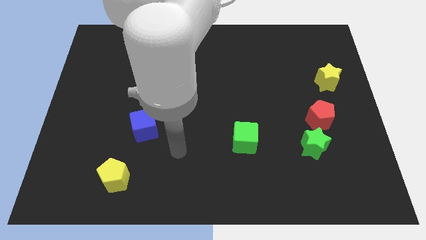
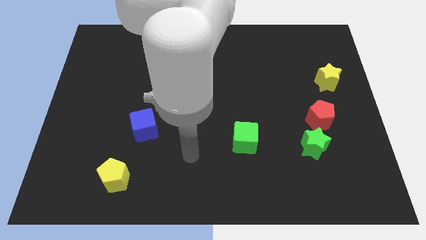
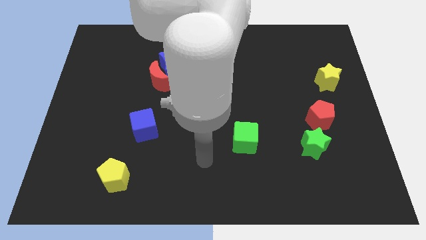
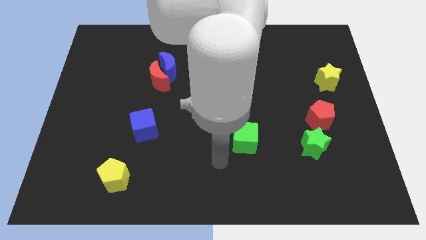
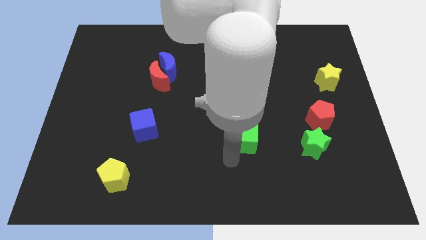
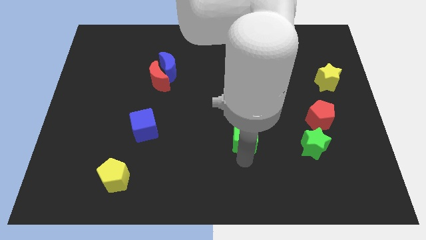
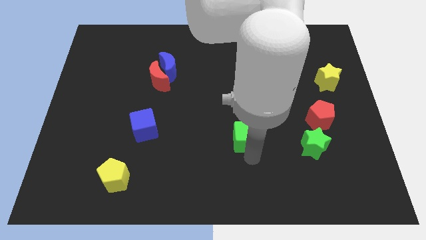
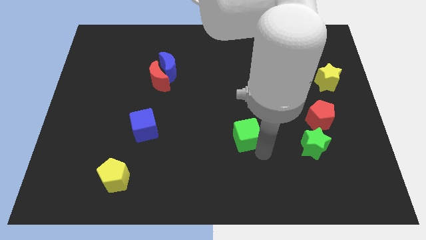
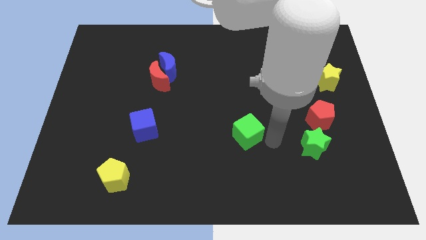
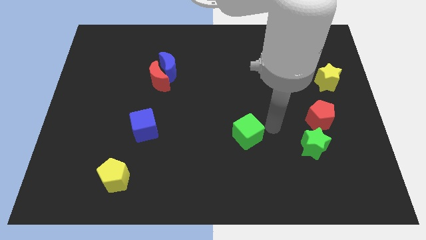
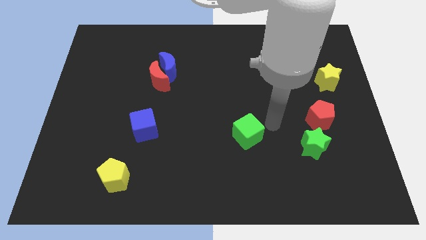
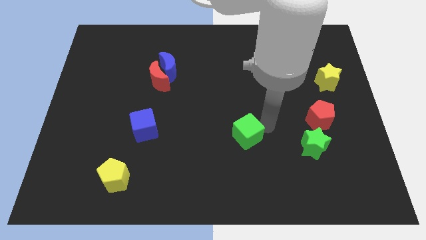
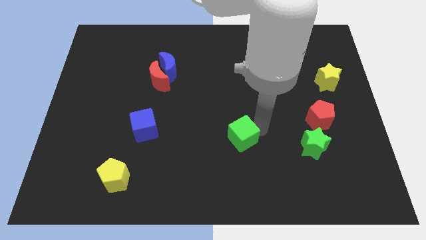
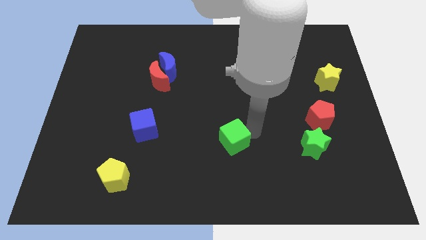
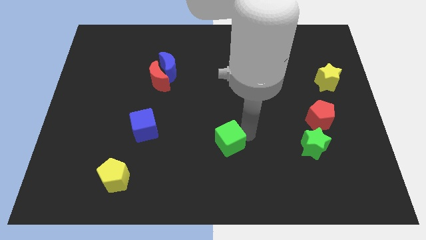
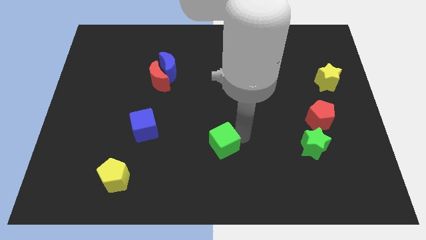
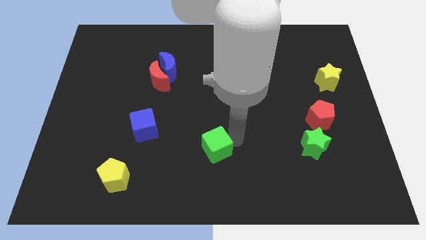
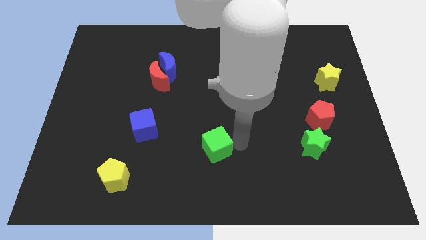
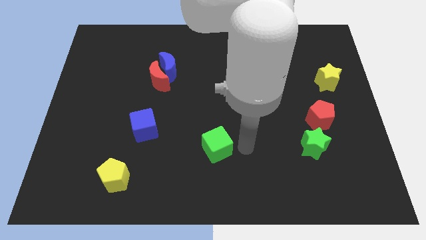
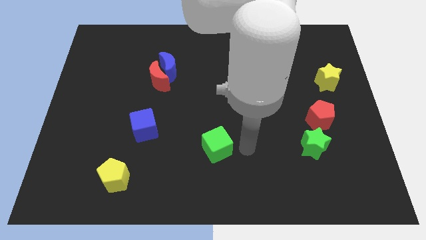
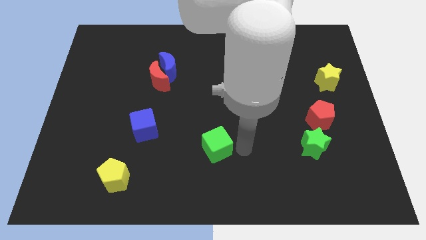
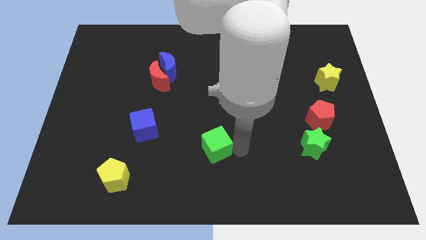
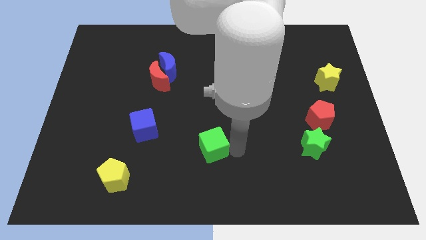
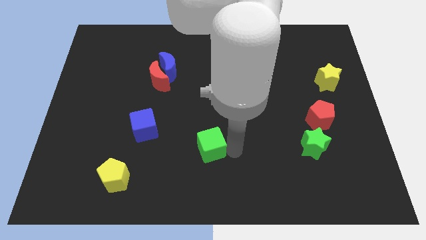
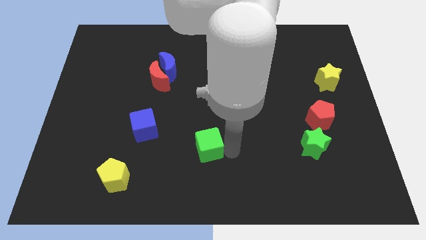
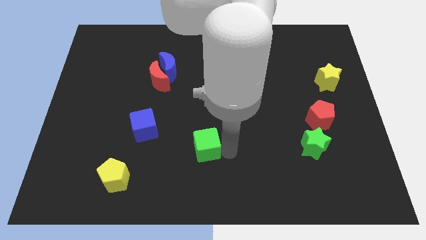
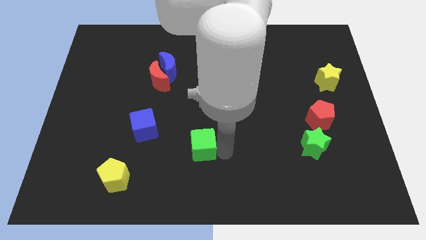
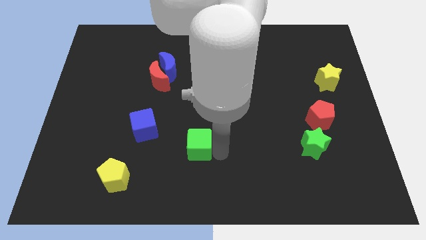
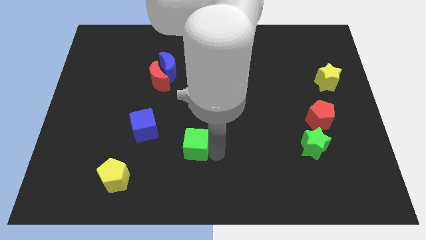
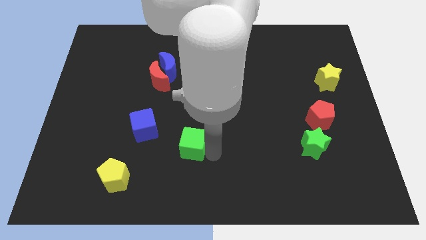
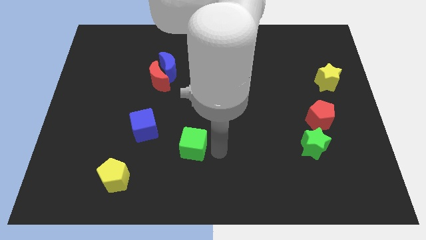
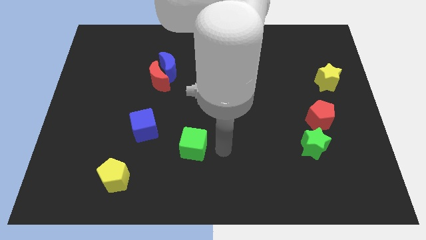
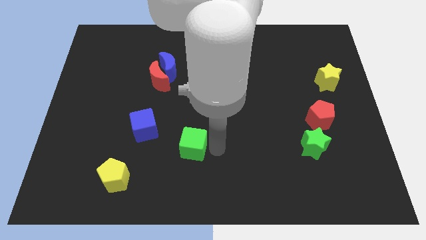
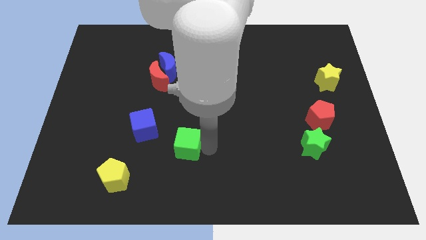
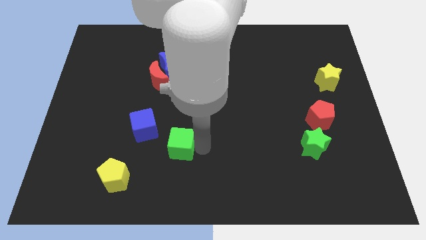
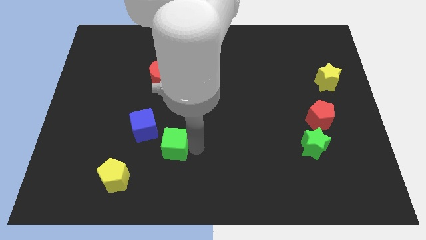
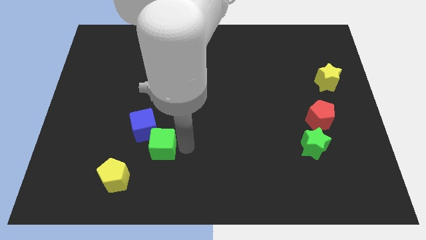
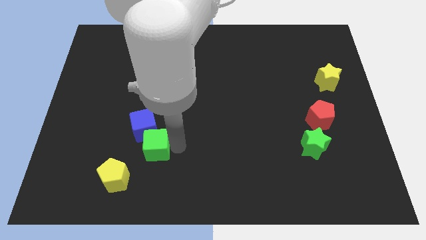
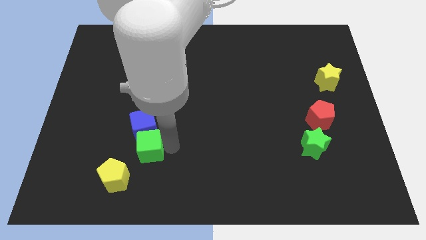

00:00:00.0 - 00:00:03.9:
push the green cube left

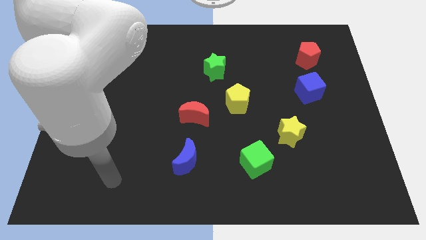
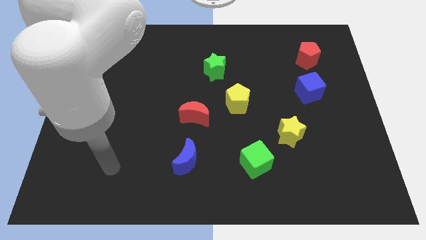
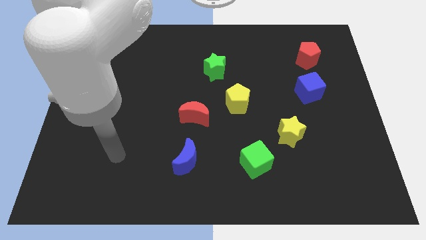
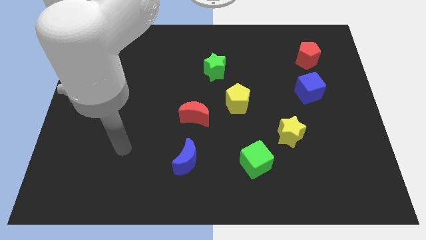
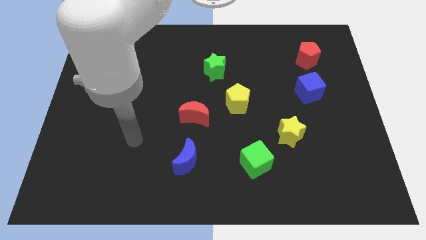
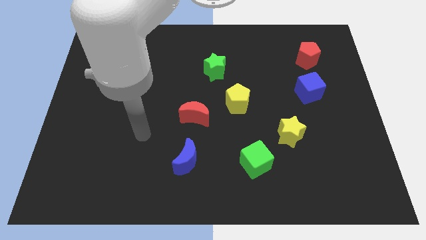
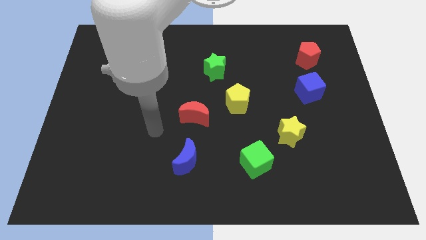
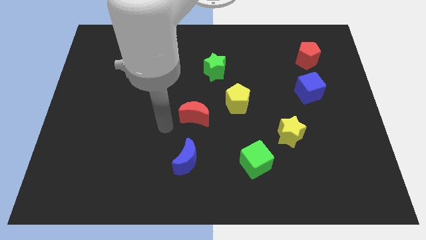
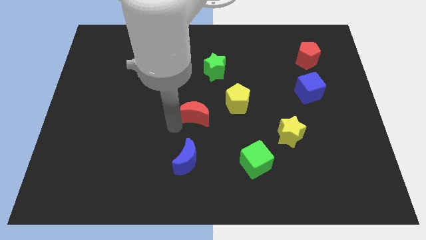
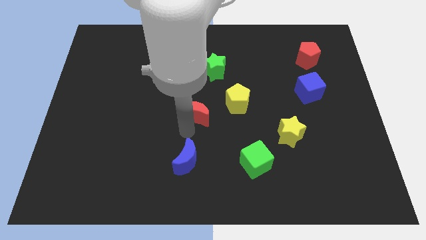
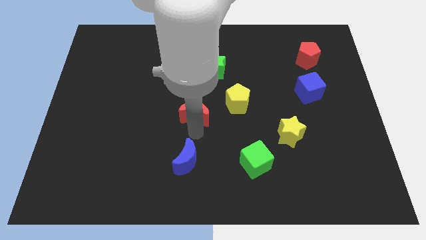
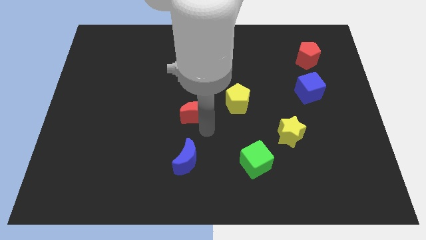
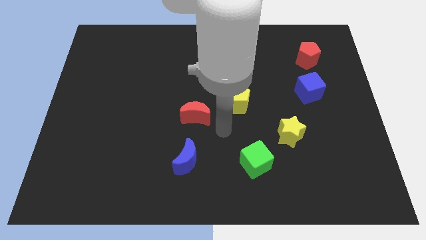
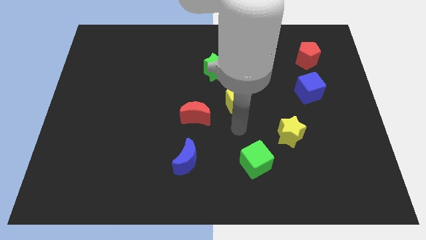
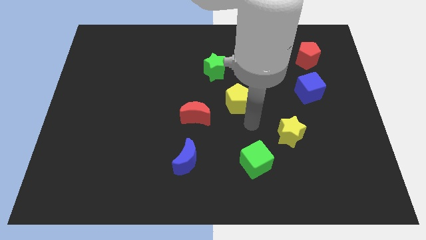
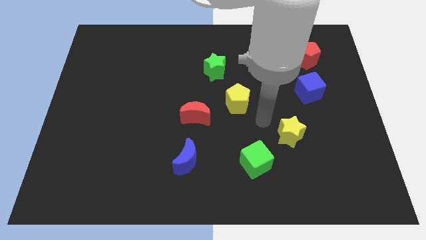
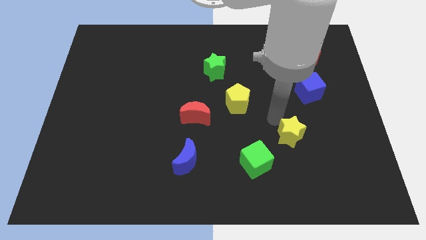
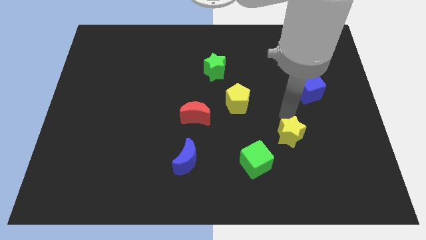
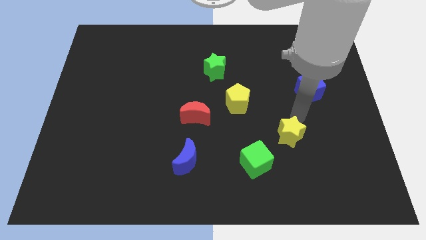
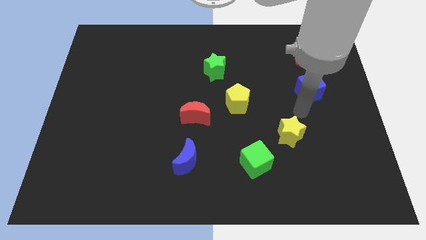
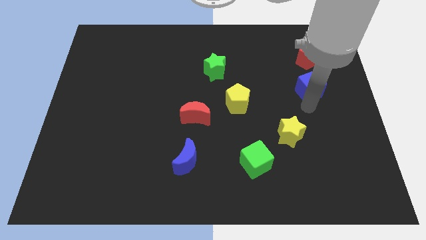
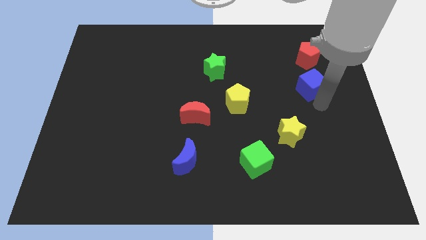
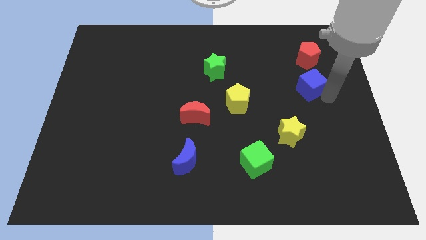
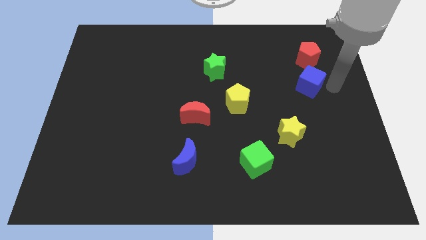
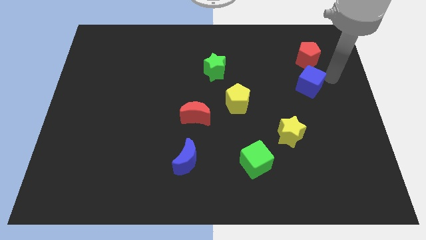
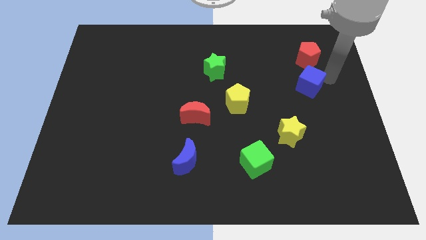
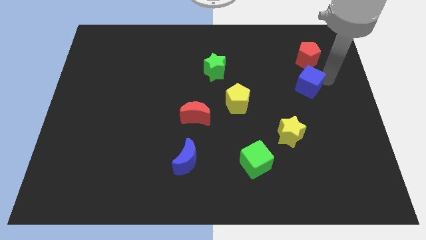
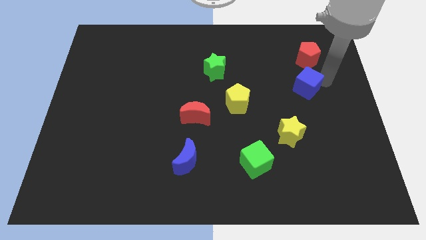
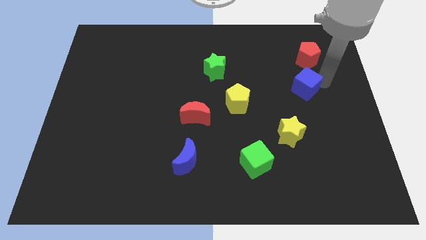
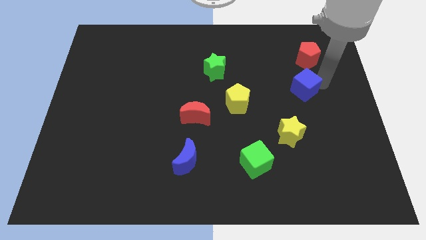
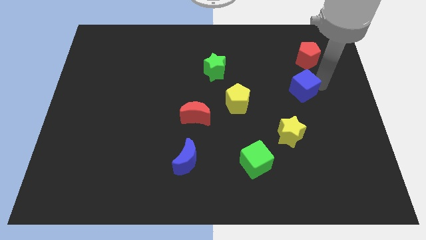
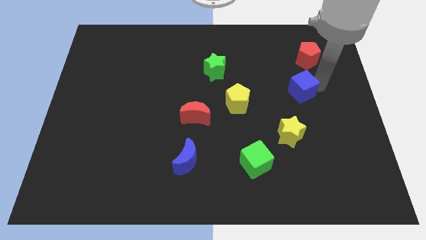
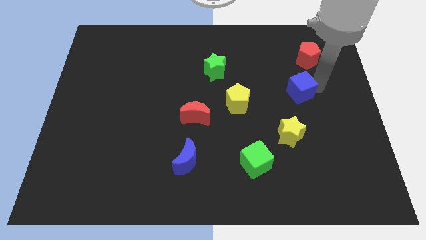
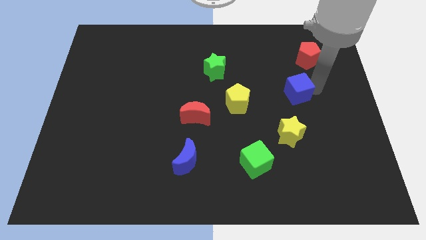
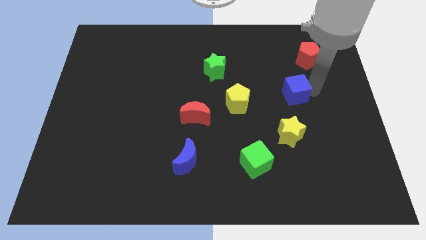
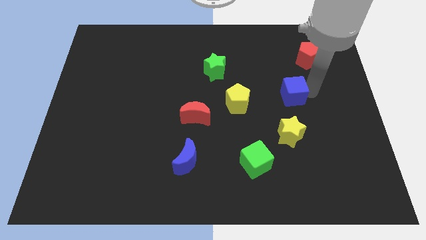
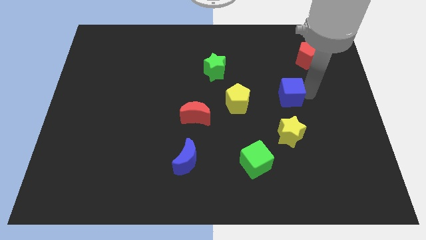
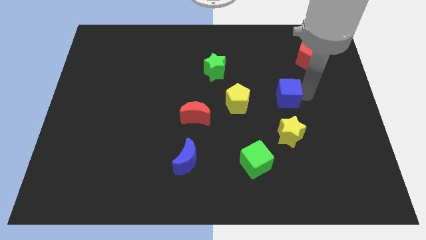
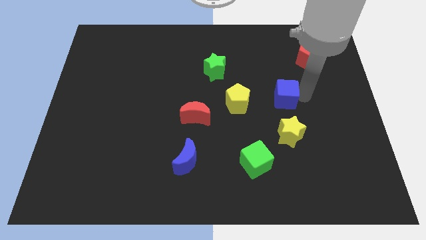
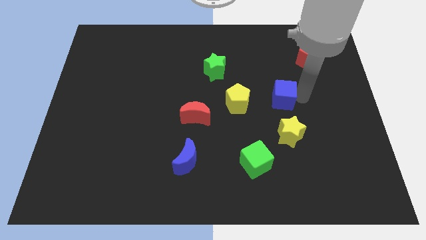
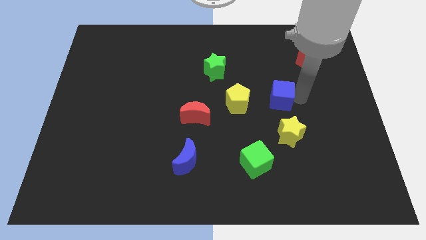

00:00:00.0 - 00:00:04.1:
push the blue cube left a little
